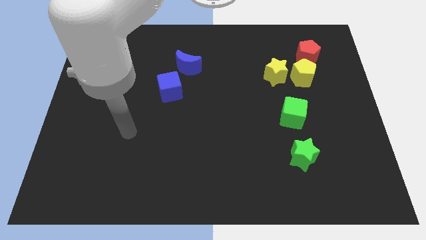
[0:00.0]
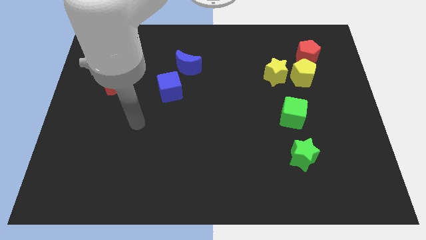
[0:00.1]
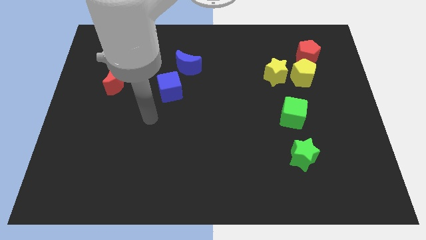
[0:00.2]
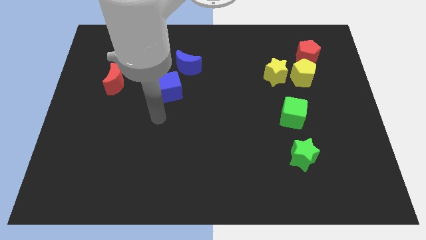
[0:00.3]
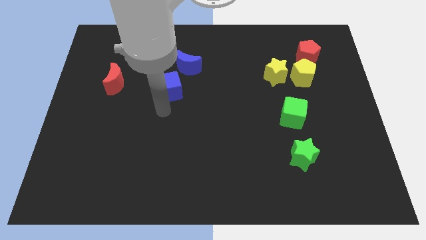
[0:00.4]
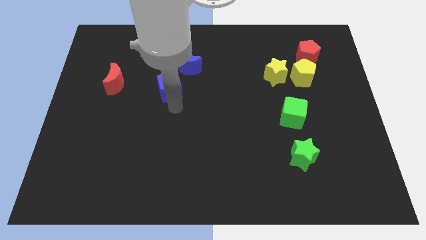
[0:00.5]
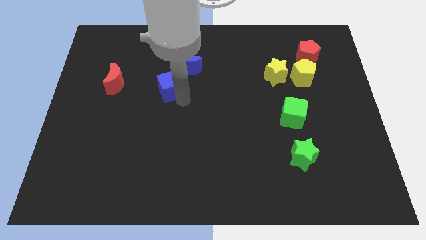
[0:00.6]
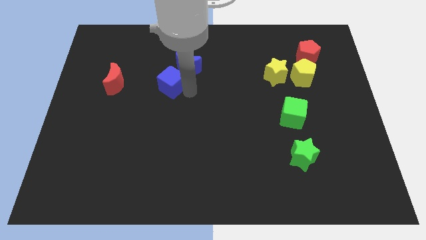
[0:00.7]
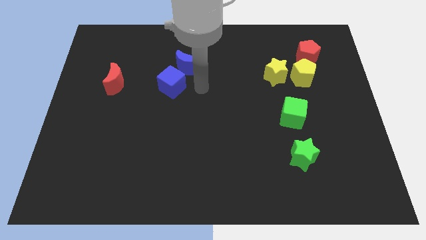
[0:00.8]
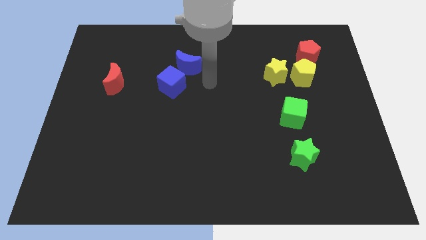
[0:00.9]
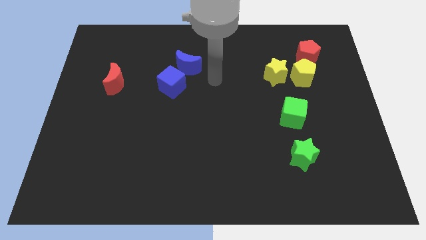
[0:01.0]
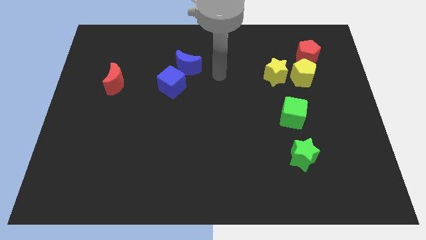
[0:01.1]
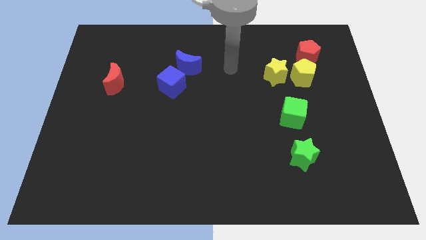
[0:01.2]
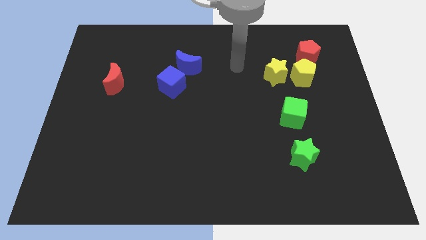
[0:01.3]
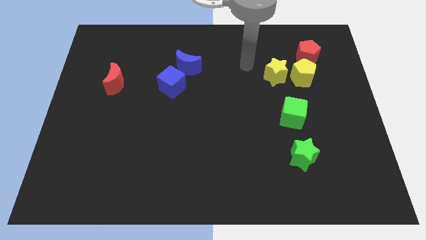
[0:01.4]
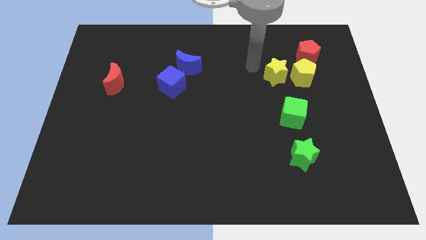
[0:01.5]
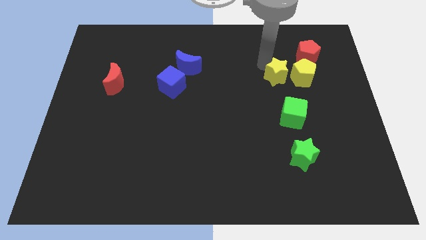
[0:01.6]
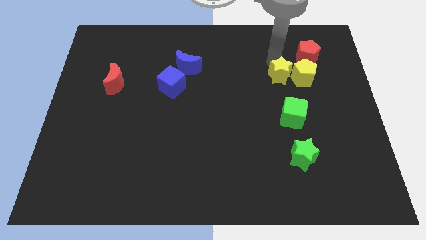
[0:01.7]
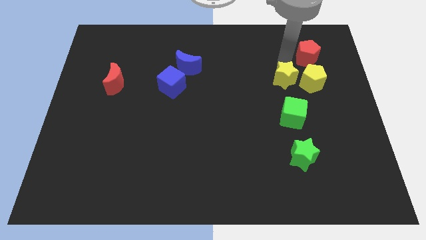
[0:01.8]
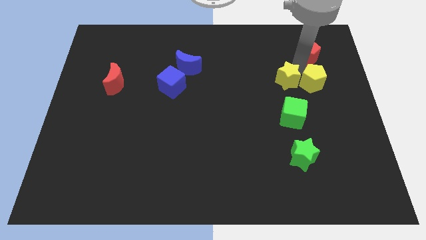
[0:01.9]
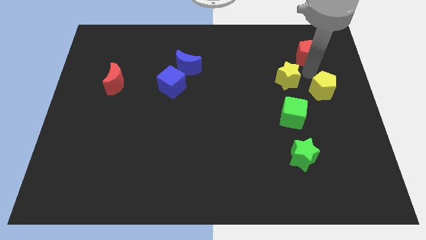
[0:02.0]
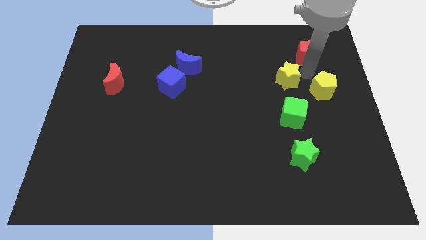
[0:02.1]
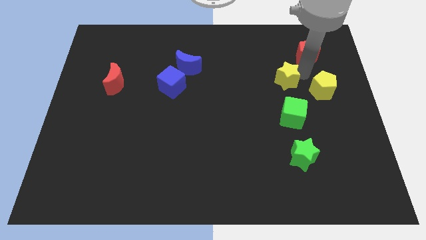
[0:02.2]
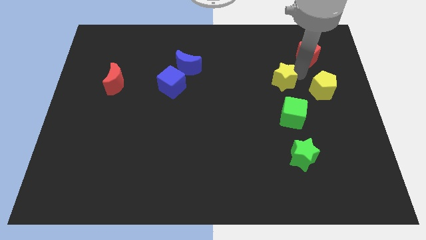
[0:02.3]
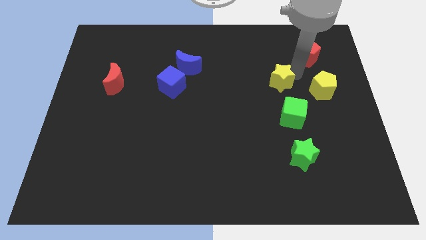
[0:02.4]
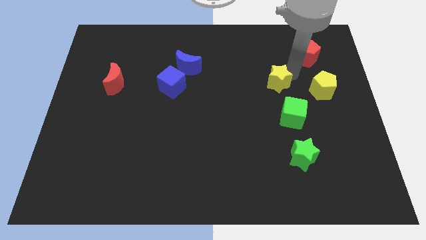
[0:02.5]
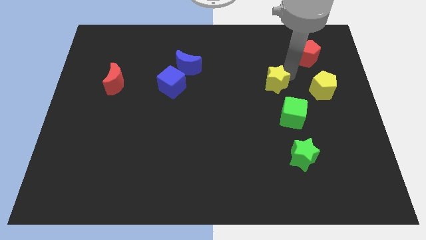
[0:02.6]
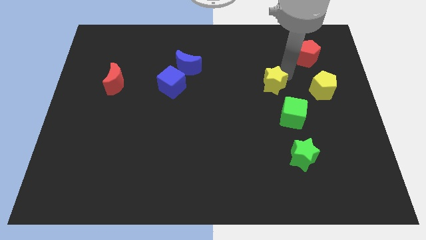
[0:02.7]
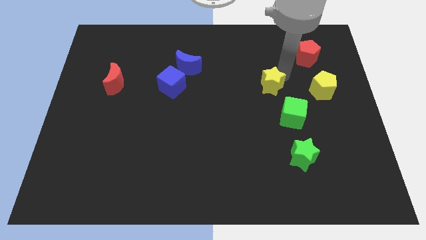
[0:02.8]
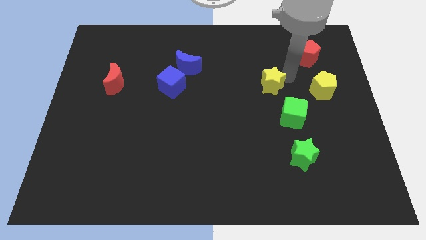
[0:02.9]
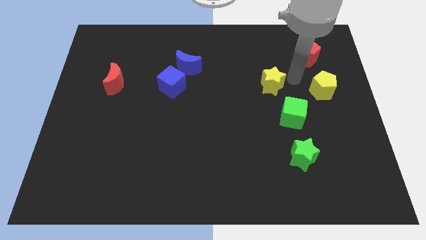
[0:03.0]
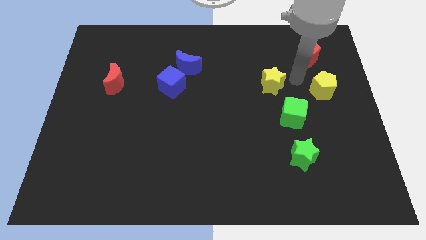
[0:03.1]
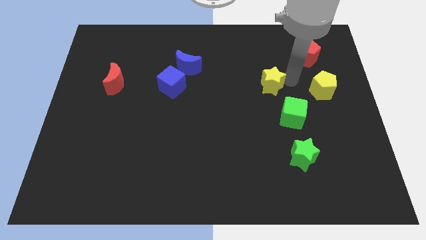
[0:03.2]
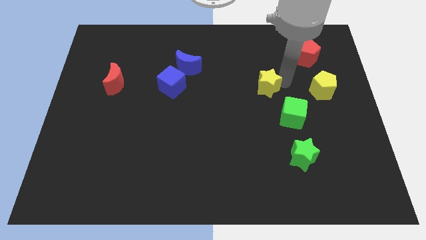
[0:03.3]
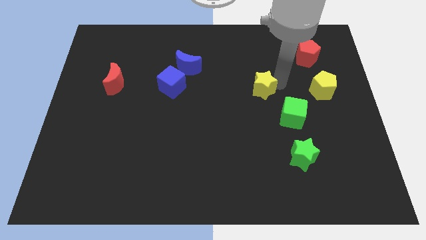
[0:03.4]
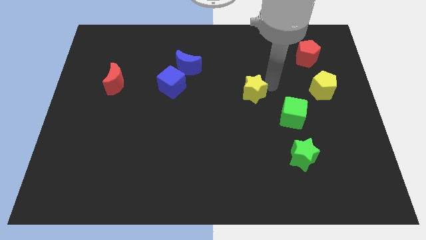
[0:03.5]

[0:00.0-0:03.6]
slide the yellow star slightly diagonally downwards and to the left

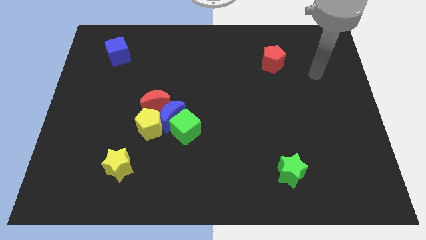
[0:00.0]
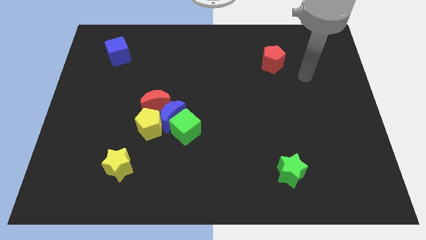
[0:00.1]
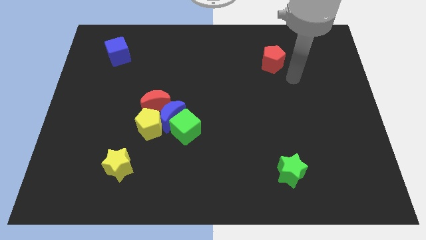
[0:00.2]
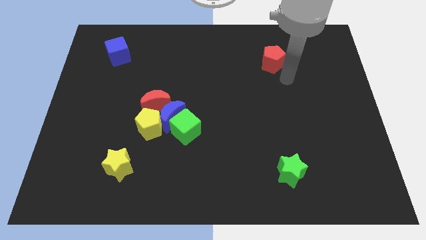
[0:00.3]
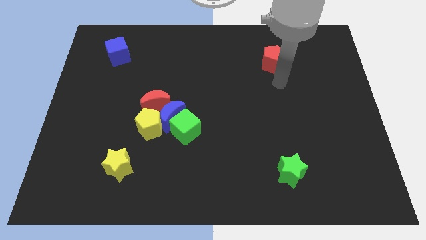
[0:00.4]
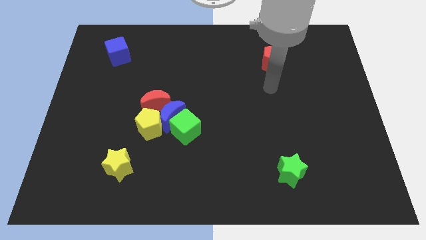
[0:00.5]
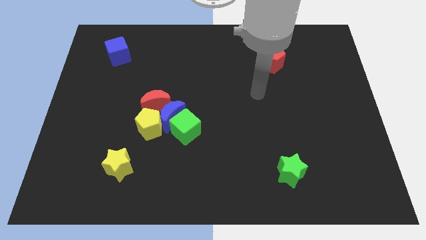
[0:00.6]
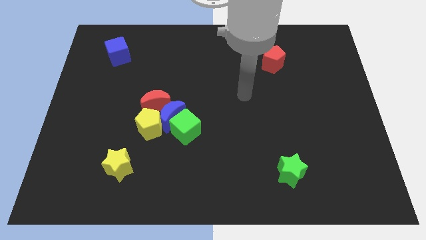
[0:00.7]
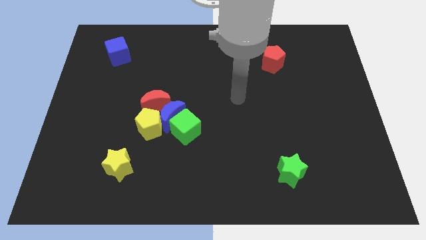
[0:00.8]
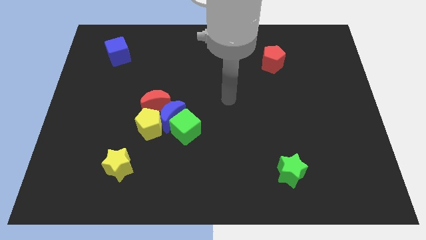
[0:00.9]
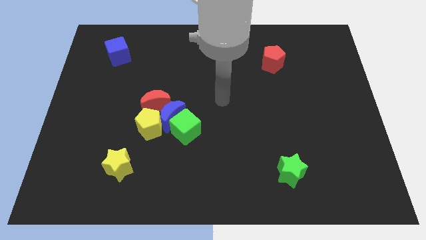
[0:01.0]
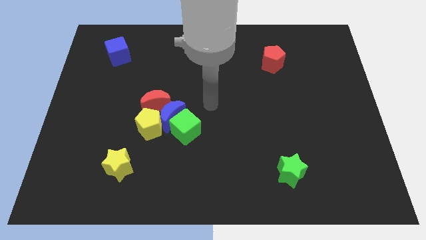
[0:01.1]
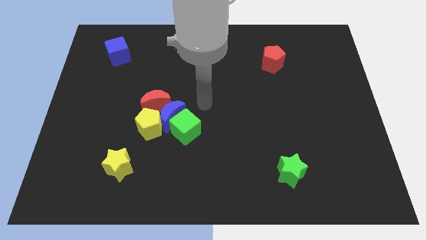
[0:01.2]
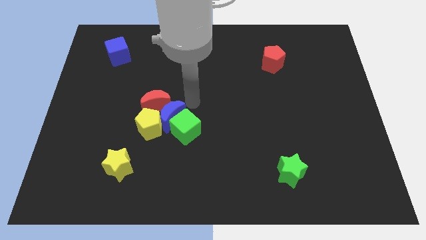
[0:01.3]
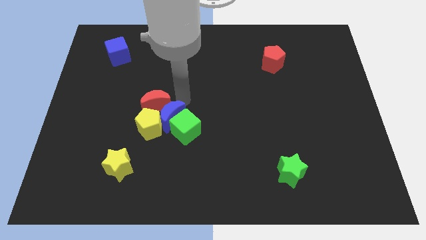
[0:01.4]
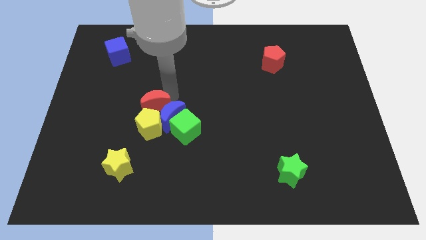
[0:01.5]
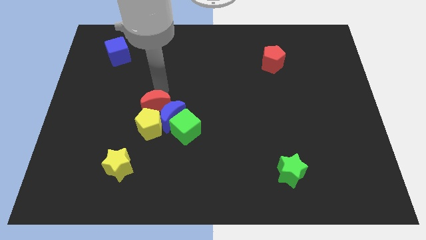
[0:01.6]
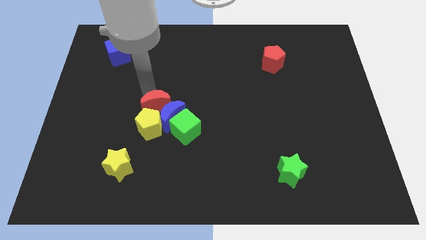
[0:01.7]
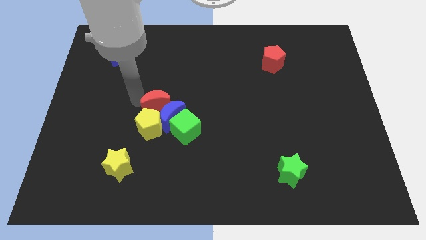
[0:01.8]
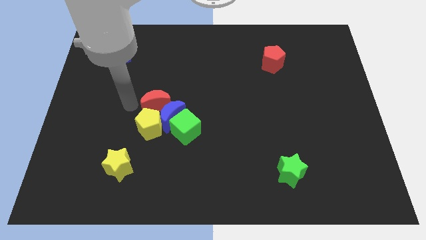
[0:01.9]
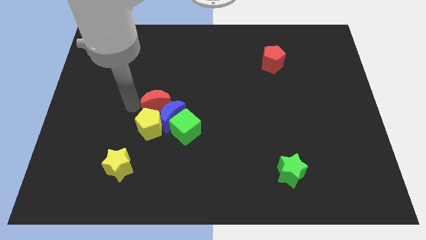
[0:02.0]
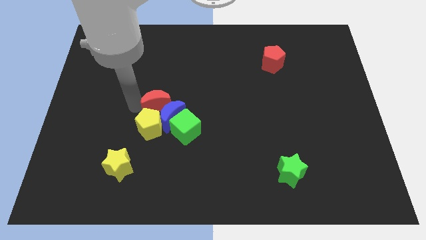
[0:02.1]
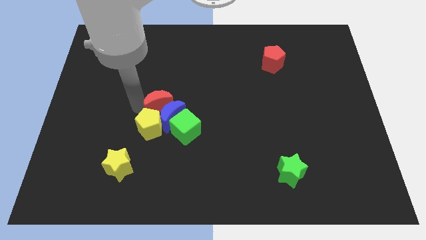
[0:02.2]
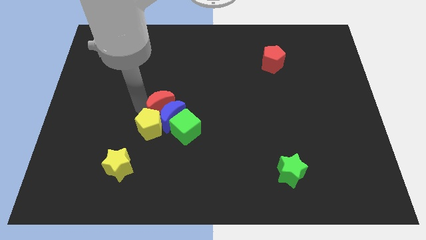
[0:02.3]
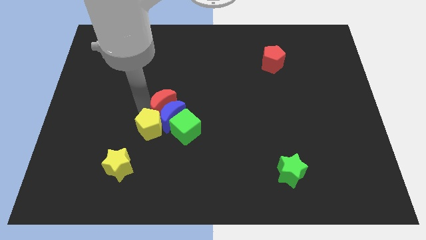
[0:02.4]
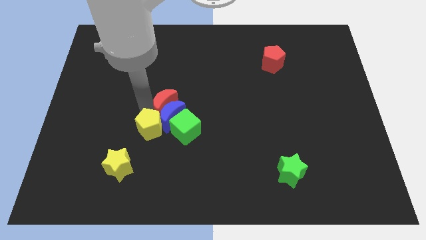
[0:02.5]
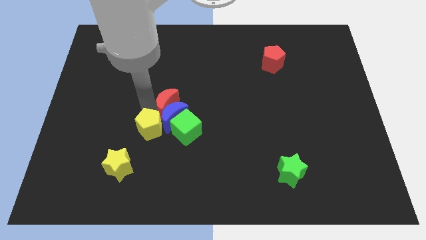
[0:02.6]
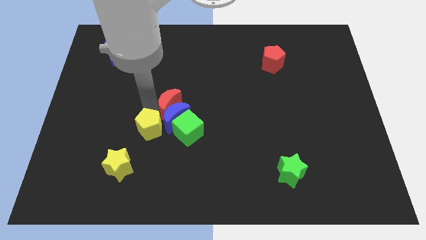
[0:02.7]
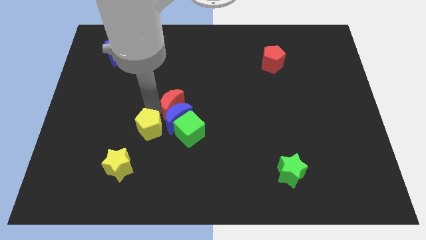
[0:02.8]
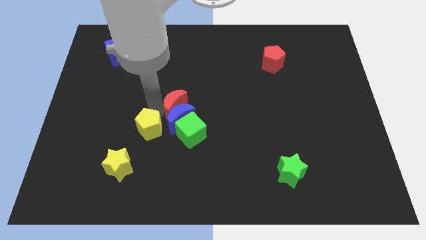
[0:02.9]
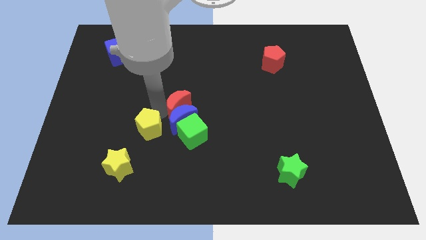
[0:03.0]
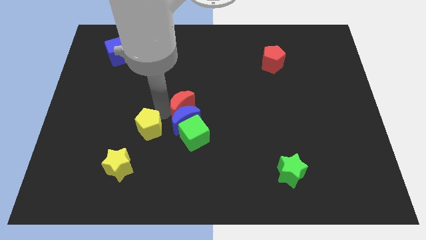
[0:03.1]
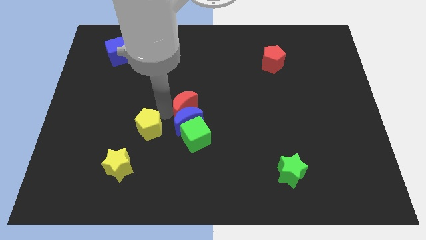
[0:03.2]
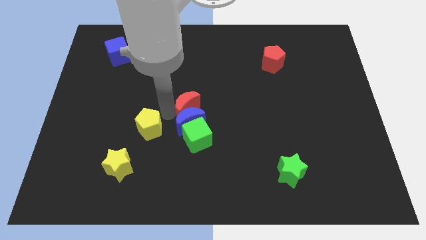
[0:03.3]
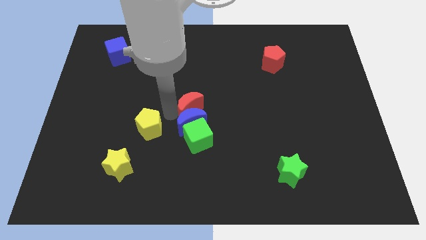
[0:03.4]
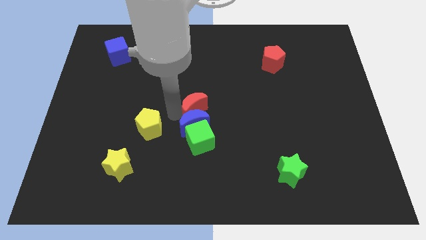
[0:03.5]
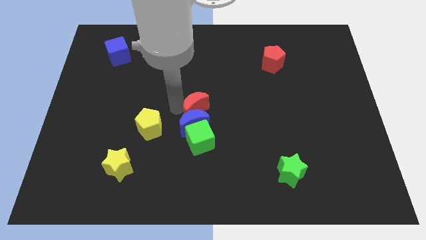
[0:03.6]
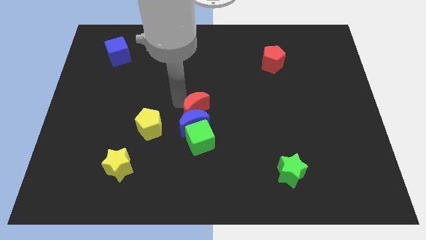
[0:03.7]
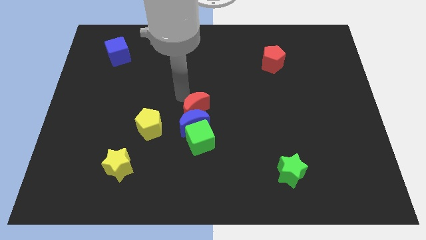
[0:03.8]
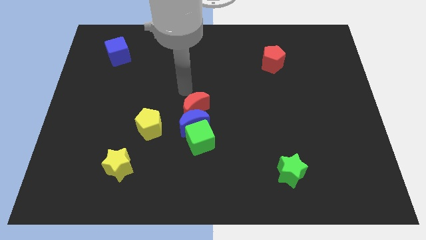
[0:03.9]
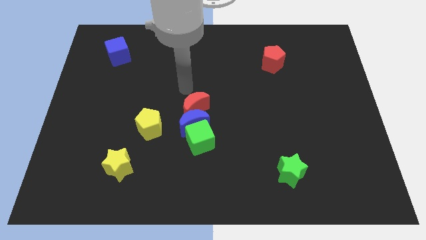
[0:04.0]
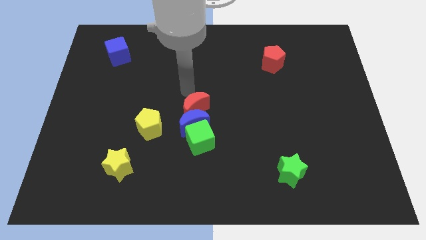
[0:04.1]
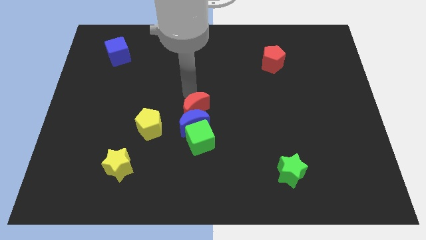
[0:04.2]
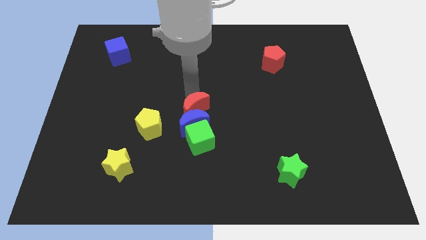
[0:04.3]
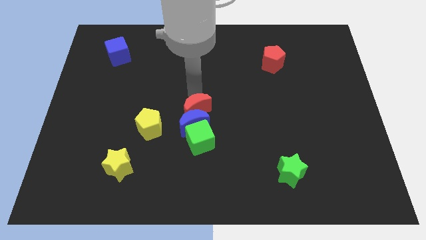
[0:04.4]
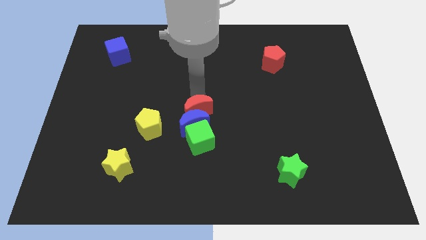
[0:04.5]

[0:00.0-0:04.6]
slightly slide the red moon downwards and to the right diagonally
